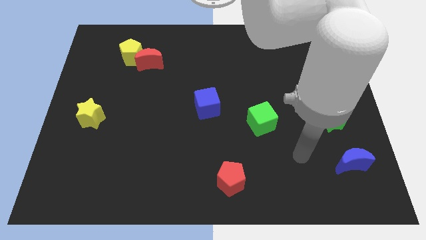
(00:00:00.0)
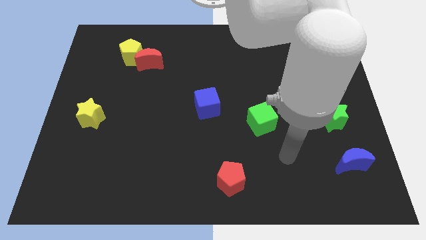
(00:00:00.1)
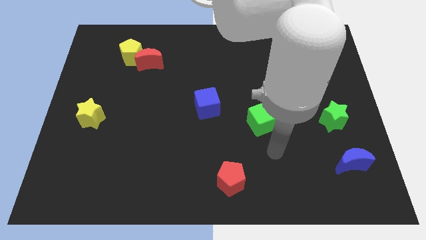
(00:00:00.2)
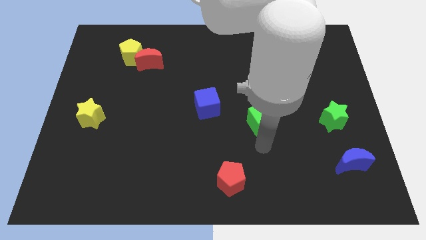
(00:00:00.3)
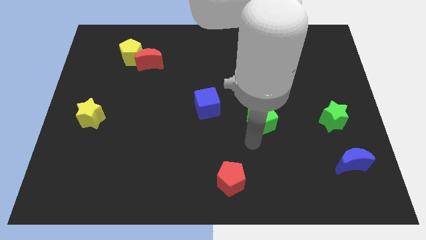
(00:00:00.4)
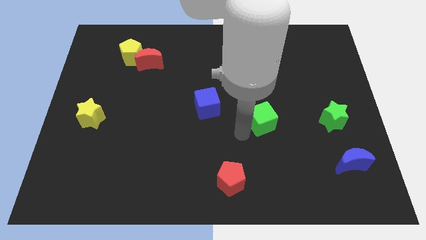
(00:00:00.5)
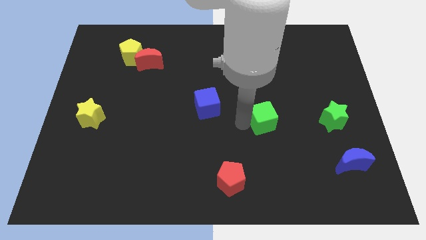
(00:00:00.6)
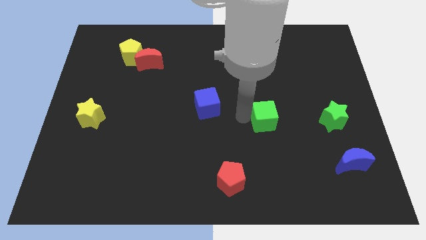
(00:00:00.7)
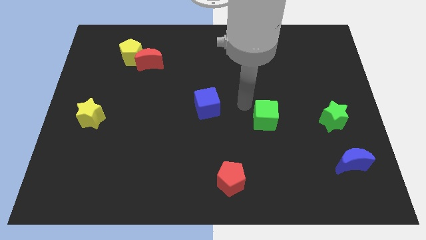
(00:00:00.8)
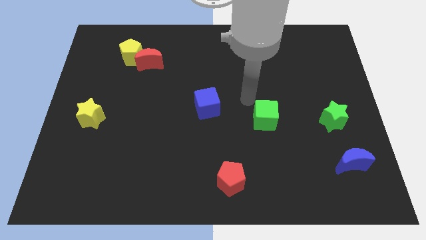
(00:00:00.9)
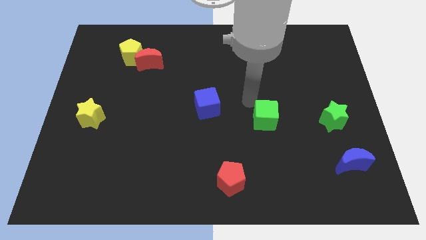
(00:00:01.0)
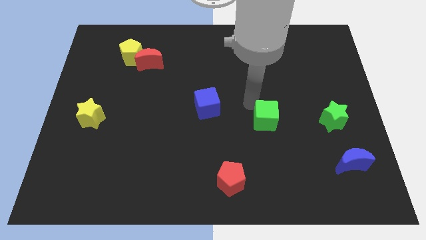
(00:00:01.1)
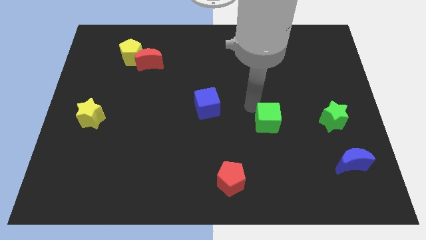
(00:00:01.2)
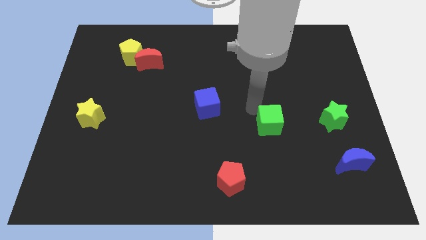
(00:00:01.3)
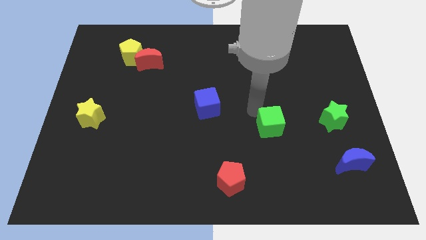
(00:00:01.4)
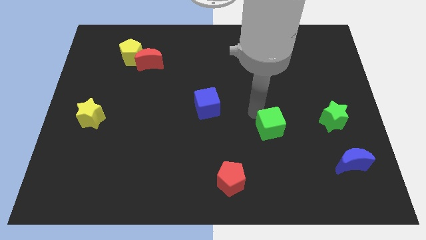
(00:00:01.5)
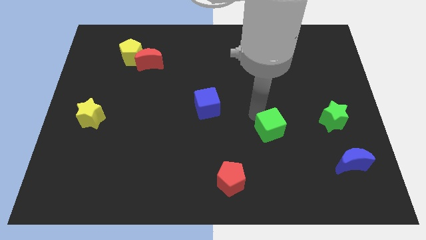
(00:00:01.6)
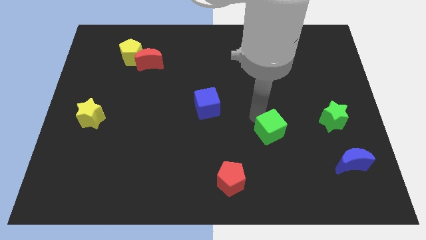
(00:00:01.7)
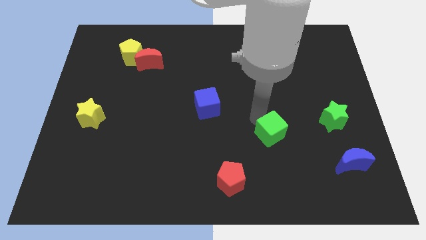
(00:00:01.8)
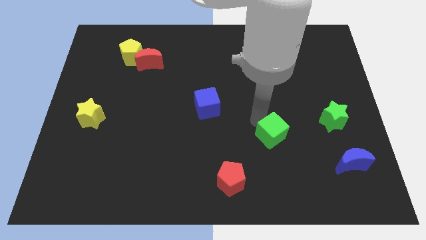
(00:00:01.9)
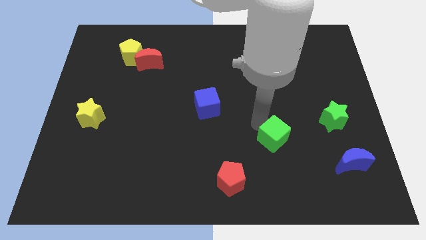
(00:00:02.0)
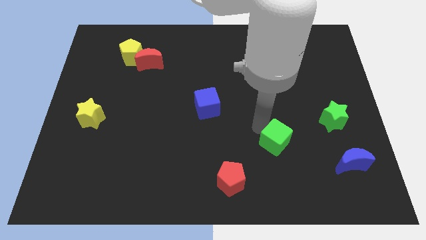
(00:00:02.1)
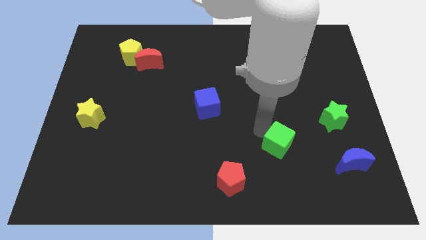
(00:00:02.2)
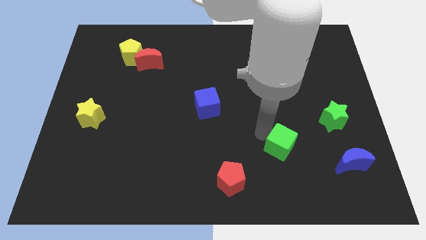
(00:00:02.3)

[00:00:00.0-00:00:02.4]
move the green cube downwards and to the right diagonally a little bit

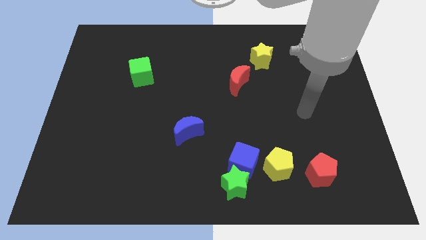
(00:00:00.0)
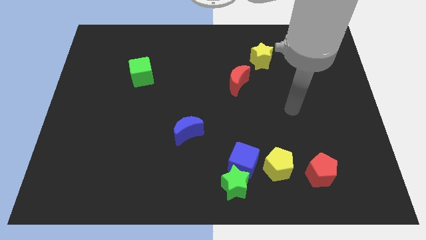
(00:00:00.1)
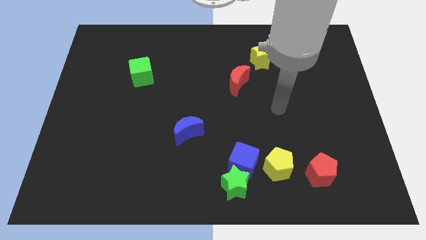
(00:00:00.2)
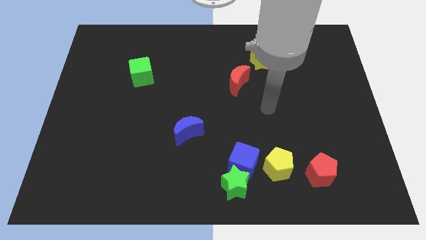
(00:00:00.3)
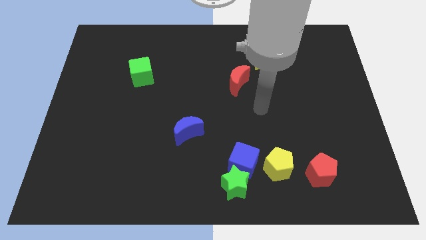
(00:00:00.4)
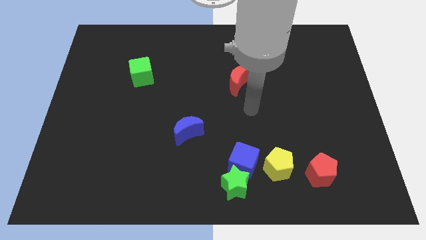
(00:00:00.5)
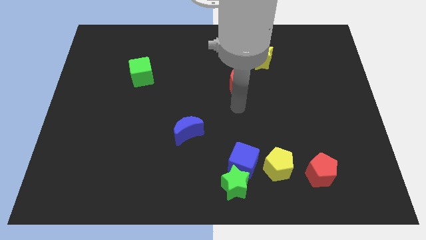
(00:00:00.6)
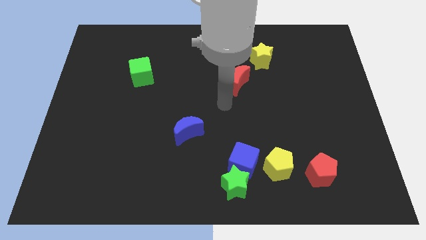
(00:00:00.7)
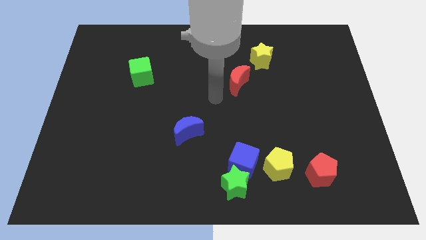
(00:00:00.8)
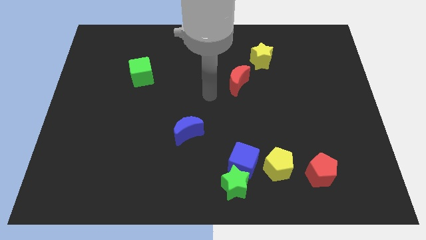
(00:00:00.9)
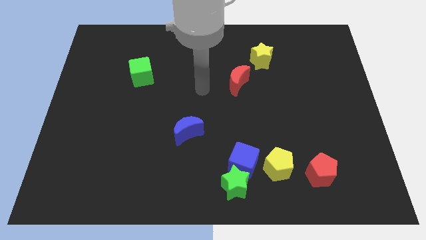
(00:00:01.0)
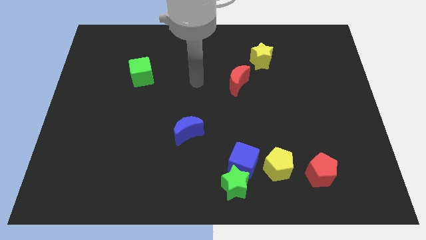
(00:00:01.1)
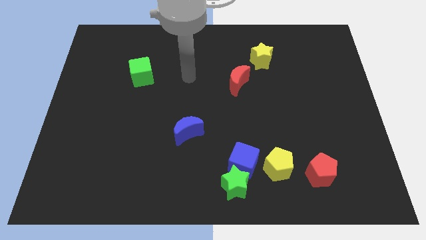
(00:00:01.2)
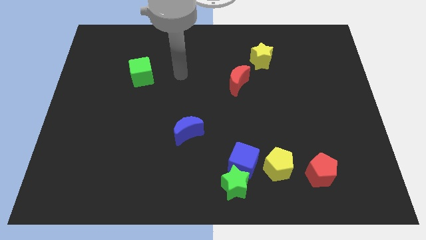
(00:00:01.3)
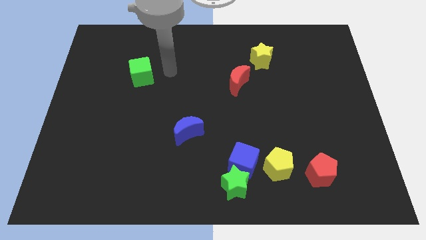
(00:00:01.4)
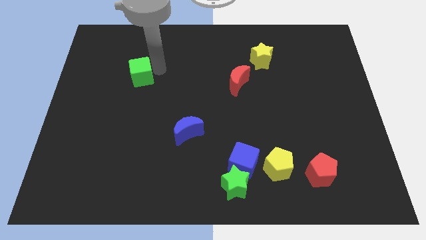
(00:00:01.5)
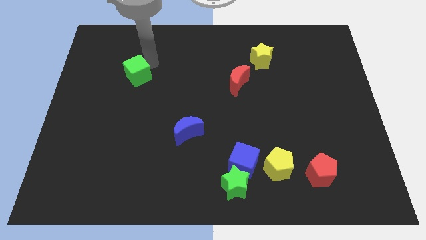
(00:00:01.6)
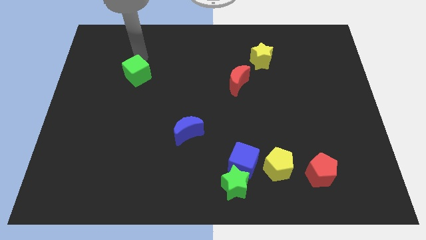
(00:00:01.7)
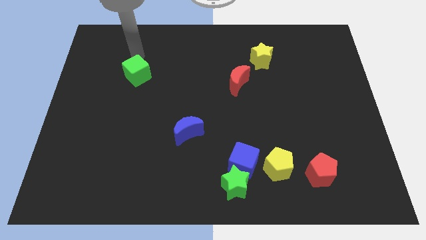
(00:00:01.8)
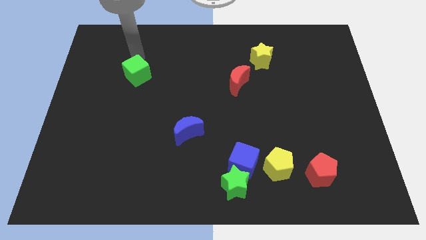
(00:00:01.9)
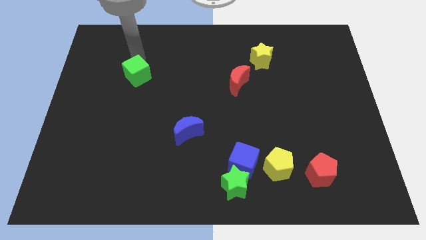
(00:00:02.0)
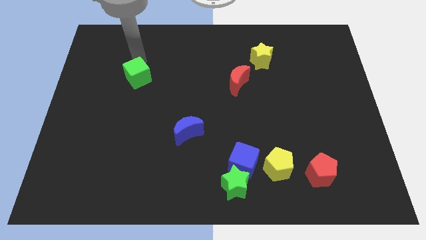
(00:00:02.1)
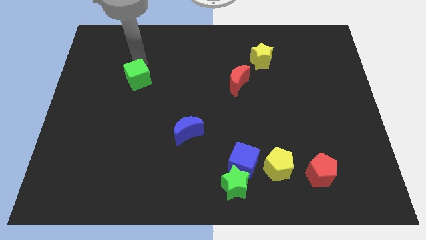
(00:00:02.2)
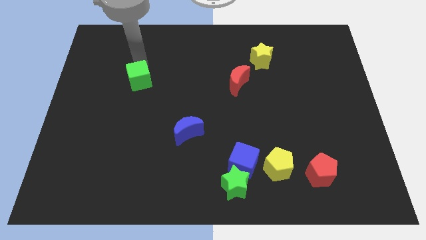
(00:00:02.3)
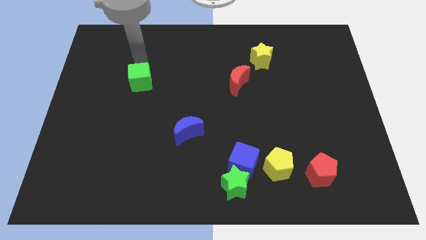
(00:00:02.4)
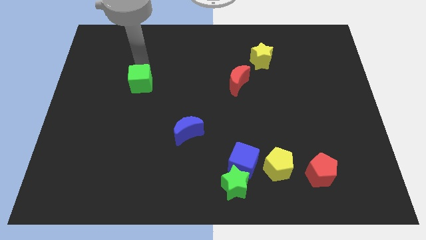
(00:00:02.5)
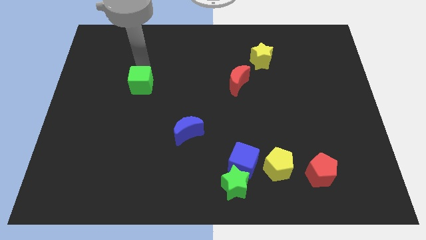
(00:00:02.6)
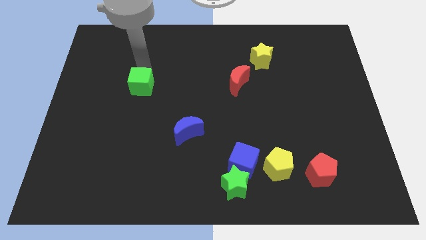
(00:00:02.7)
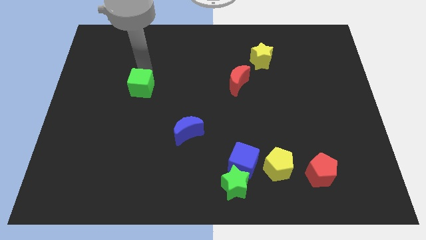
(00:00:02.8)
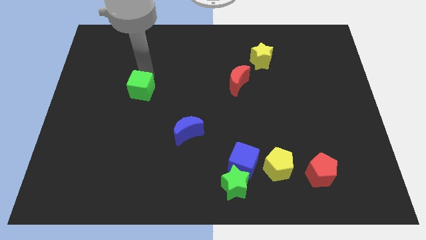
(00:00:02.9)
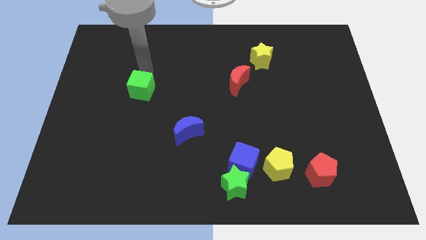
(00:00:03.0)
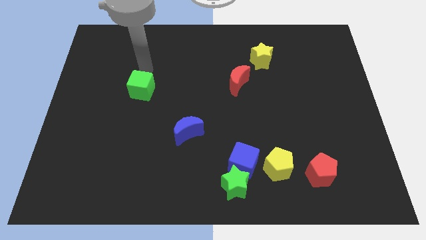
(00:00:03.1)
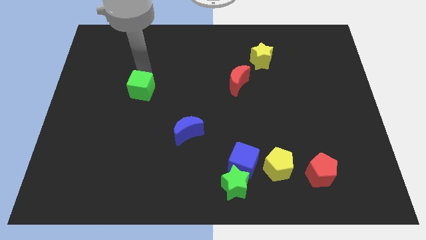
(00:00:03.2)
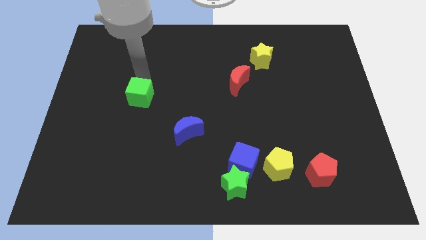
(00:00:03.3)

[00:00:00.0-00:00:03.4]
push the green cube a little bit down

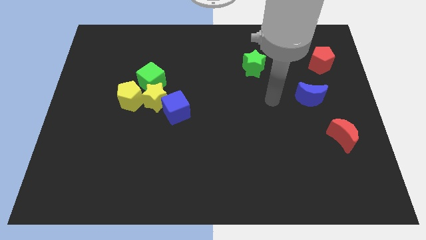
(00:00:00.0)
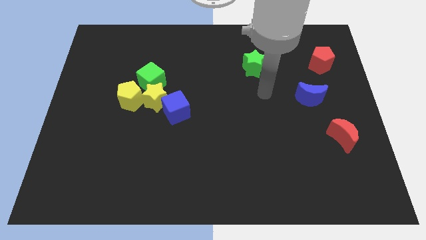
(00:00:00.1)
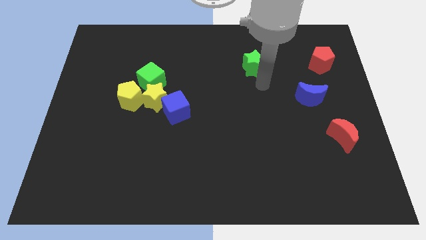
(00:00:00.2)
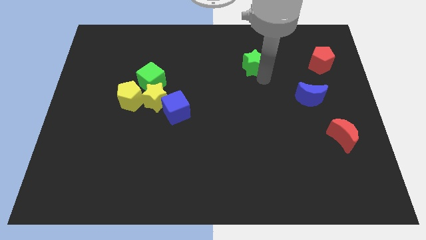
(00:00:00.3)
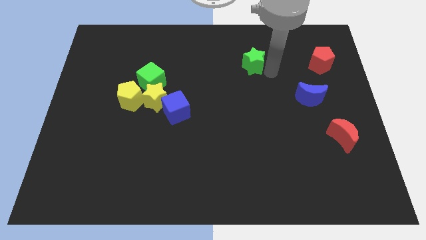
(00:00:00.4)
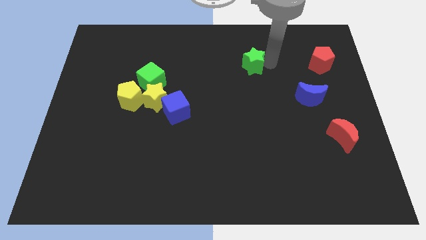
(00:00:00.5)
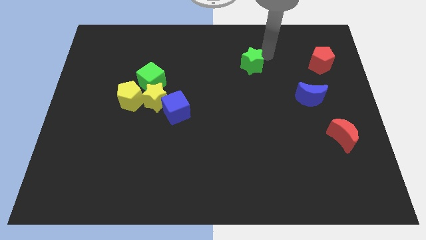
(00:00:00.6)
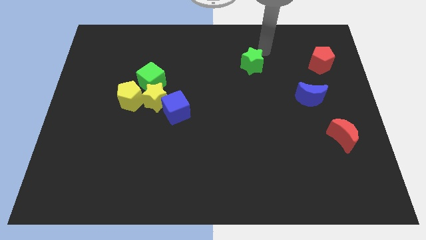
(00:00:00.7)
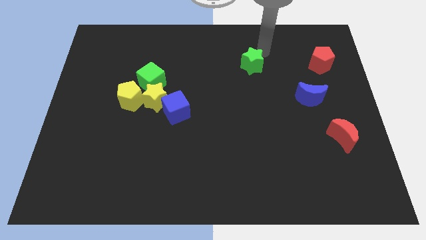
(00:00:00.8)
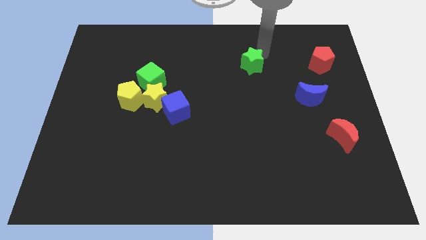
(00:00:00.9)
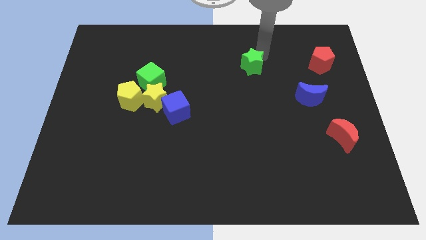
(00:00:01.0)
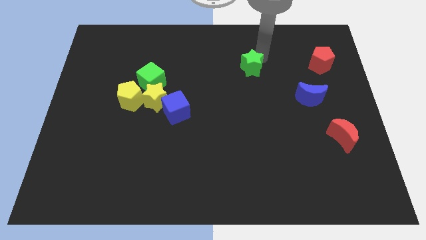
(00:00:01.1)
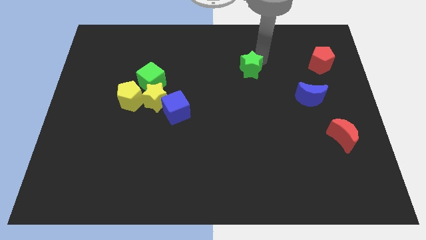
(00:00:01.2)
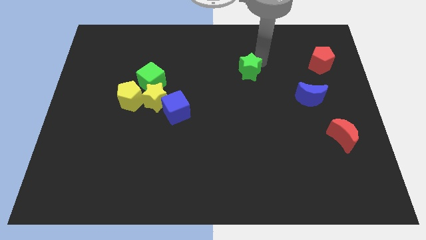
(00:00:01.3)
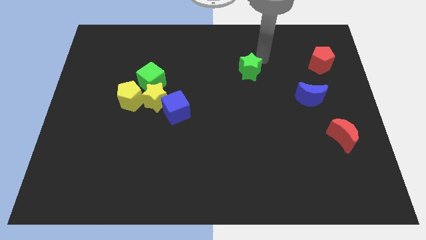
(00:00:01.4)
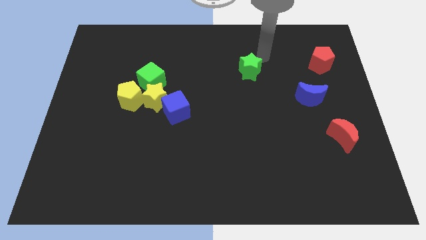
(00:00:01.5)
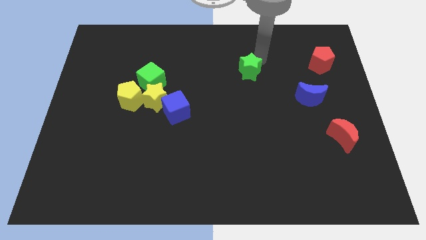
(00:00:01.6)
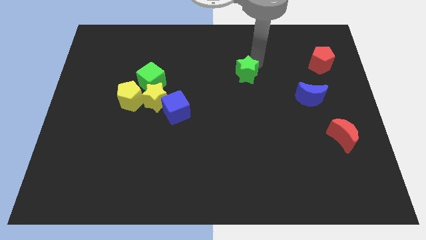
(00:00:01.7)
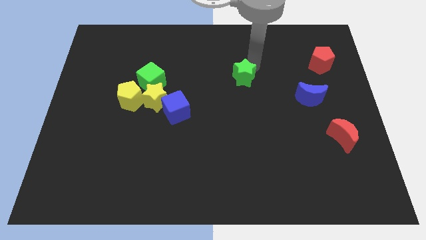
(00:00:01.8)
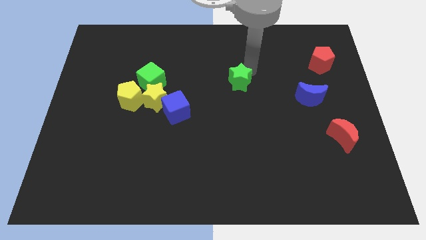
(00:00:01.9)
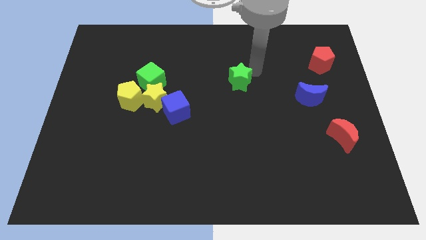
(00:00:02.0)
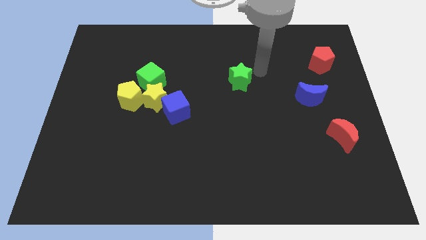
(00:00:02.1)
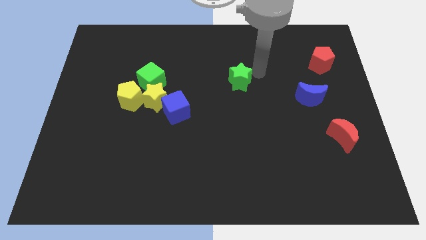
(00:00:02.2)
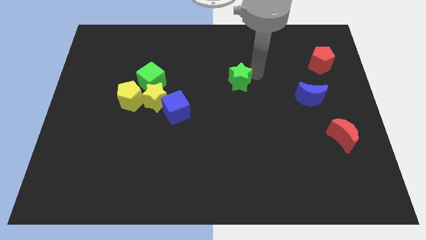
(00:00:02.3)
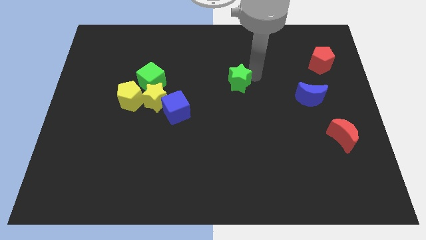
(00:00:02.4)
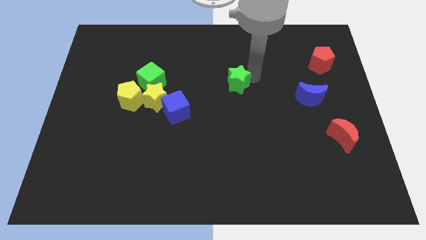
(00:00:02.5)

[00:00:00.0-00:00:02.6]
slide the green star down and left a little
